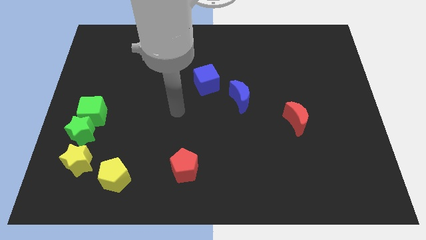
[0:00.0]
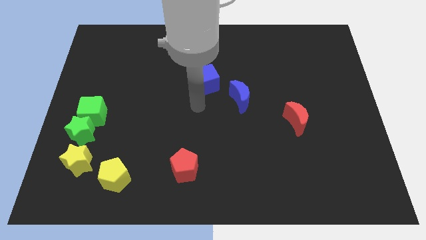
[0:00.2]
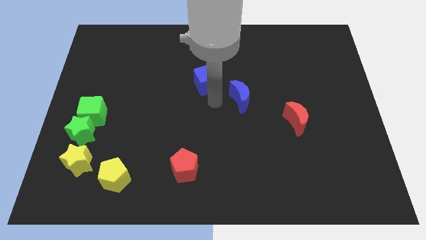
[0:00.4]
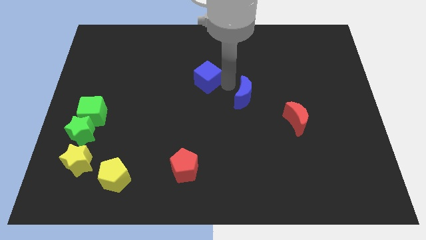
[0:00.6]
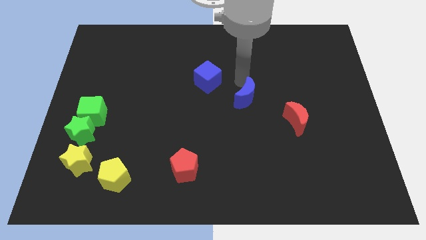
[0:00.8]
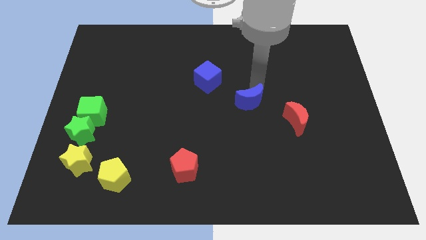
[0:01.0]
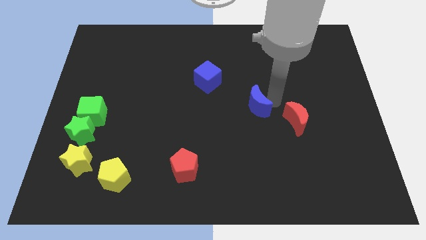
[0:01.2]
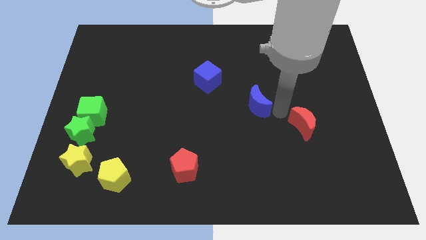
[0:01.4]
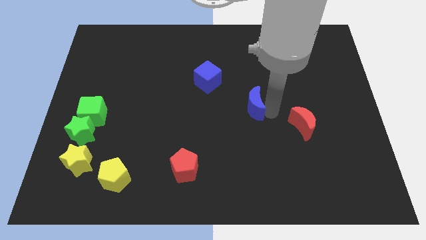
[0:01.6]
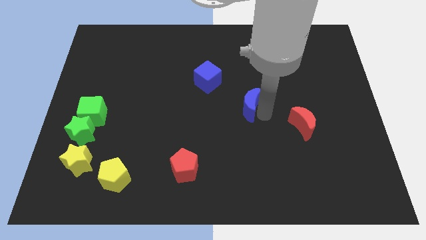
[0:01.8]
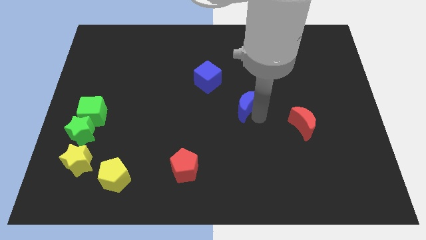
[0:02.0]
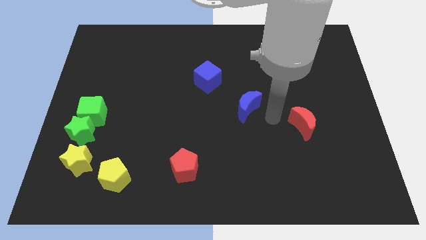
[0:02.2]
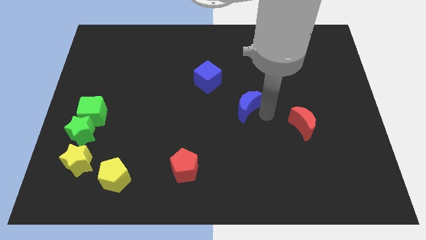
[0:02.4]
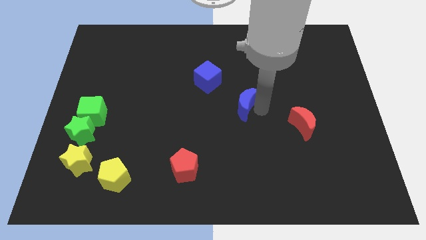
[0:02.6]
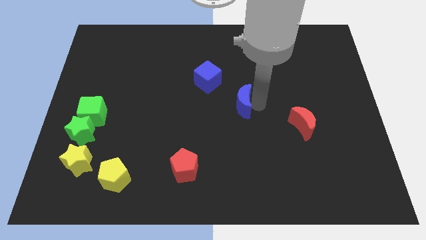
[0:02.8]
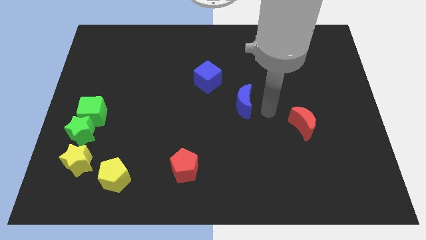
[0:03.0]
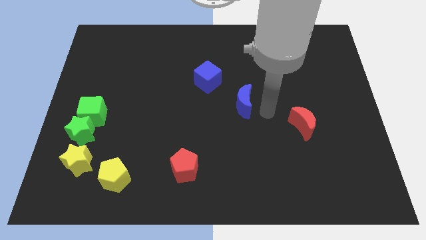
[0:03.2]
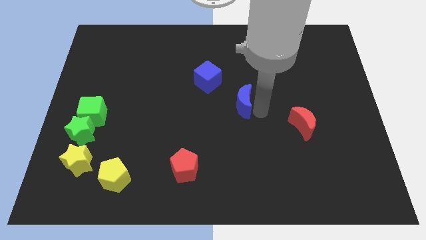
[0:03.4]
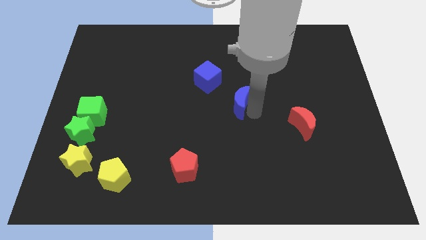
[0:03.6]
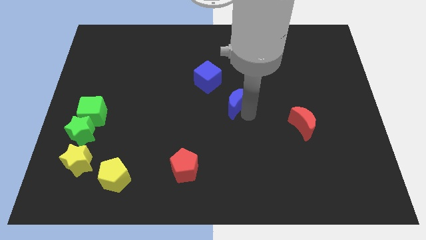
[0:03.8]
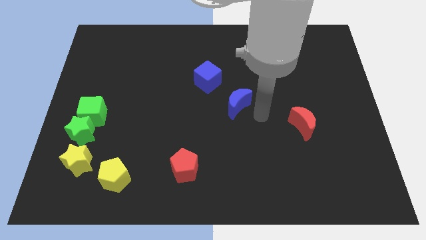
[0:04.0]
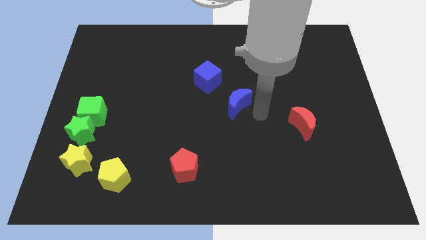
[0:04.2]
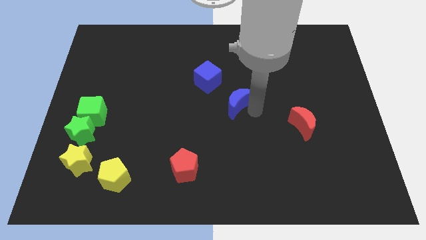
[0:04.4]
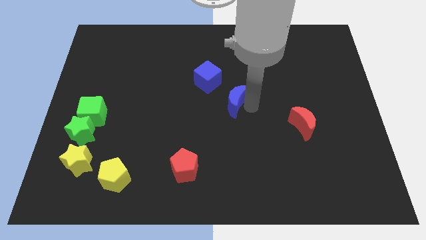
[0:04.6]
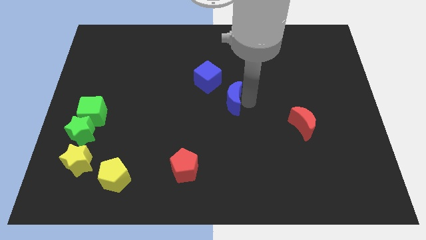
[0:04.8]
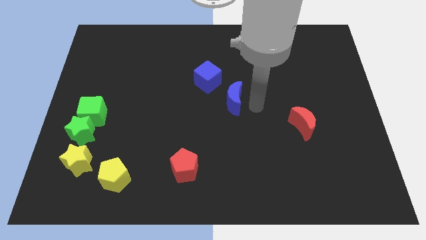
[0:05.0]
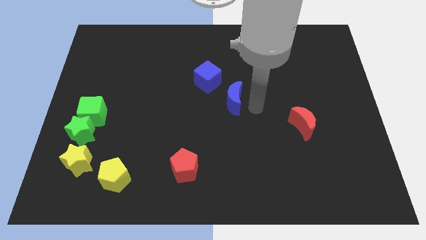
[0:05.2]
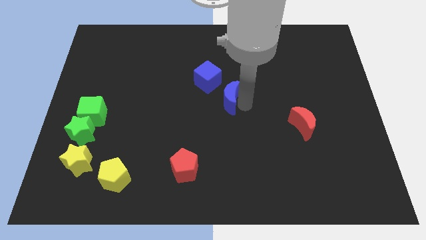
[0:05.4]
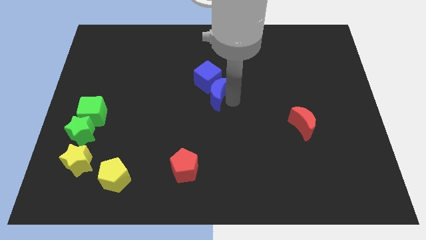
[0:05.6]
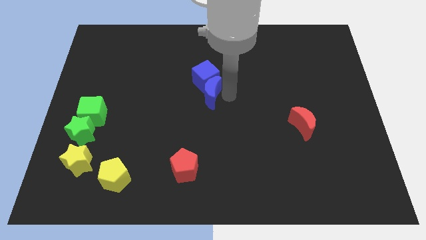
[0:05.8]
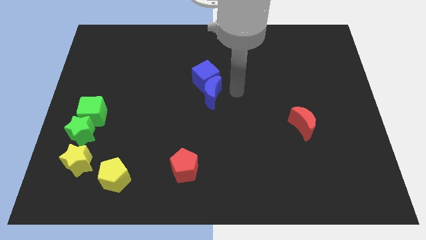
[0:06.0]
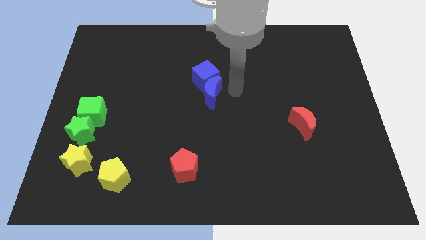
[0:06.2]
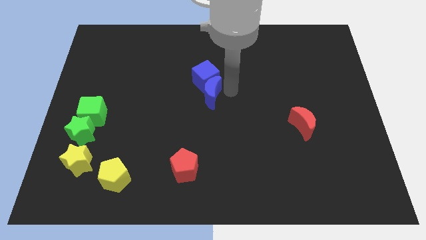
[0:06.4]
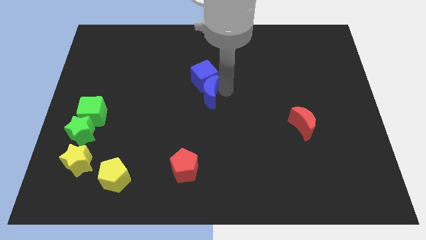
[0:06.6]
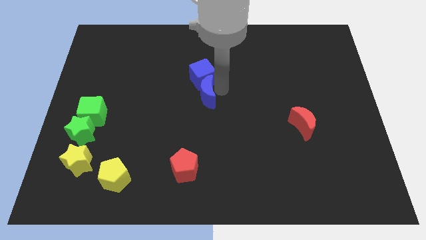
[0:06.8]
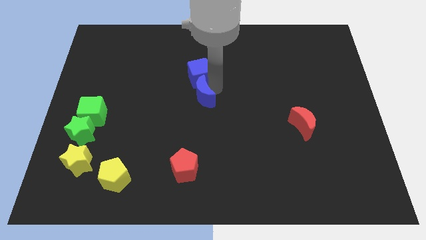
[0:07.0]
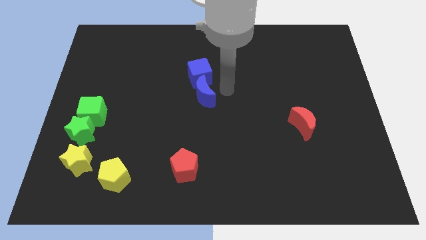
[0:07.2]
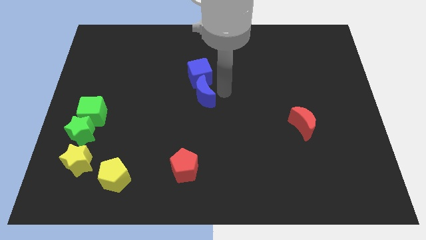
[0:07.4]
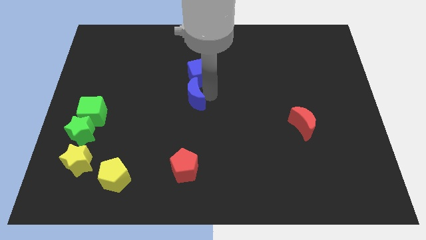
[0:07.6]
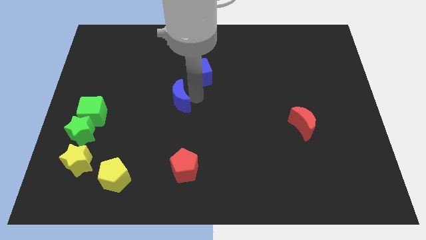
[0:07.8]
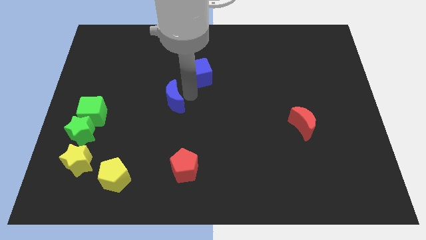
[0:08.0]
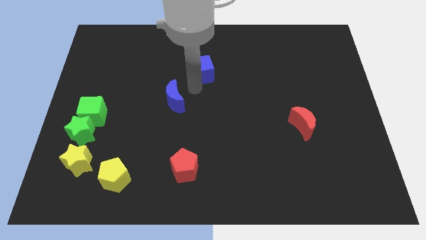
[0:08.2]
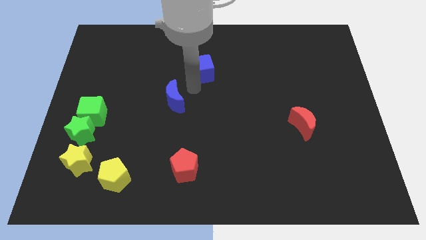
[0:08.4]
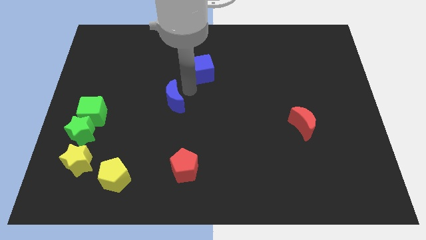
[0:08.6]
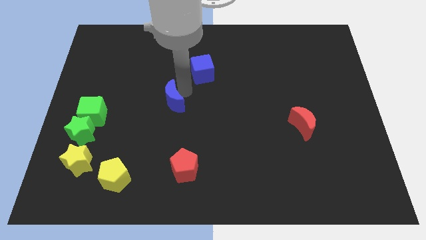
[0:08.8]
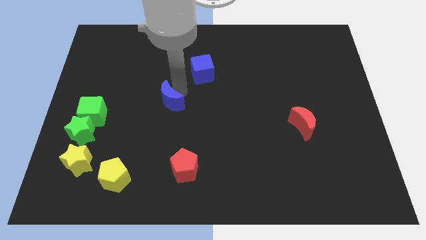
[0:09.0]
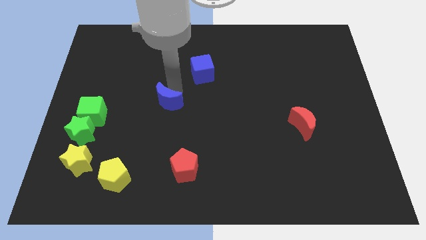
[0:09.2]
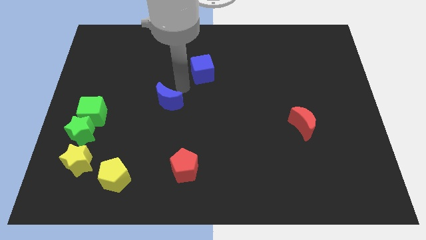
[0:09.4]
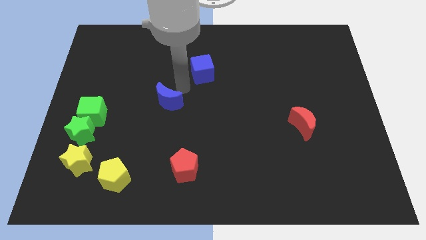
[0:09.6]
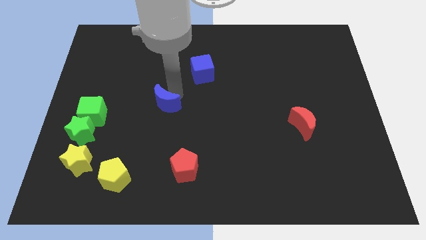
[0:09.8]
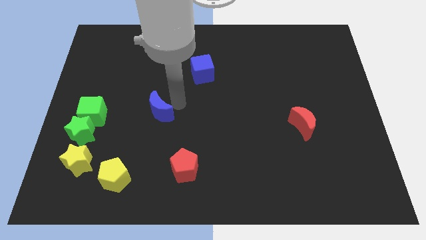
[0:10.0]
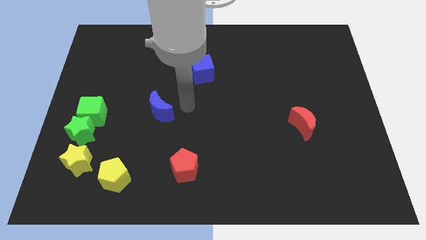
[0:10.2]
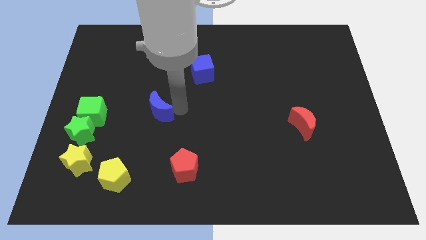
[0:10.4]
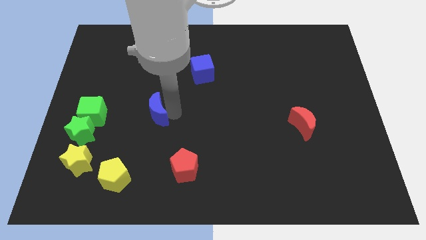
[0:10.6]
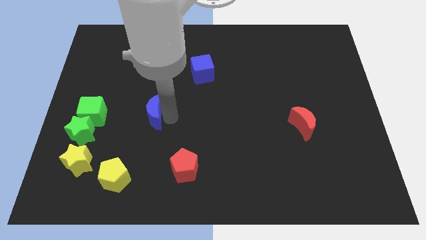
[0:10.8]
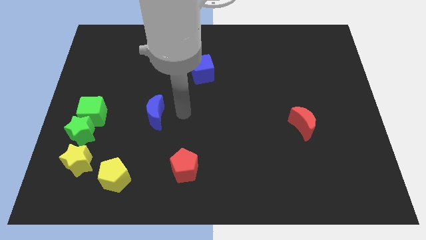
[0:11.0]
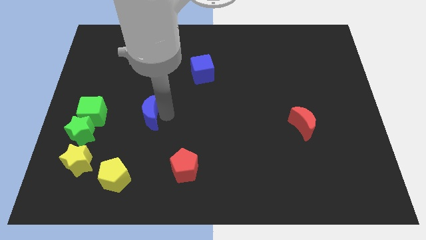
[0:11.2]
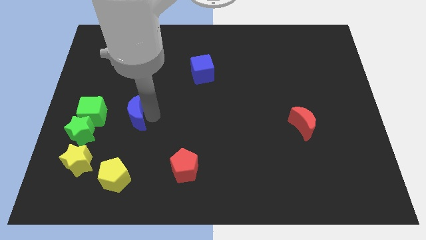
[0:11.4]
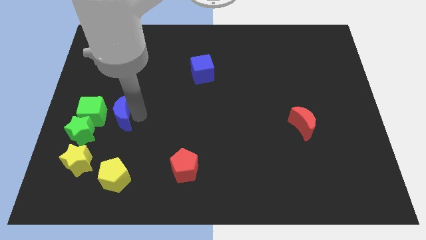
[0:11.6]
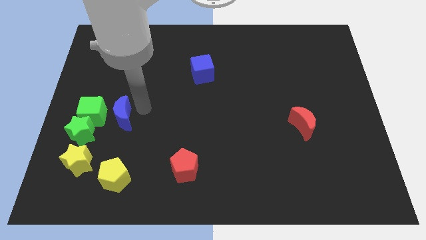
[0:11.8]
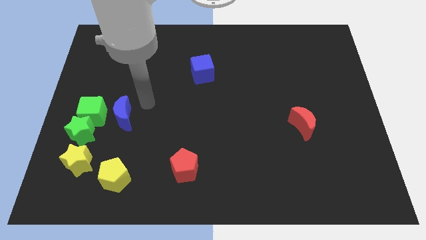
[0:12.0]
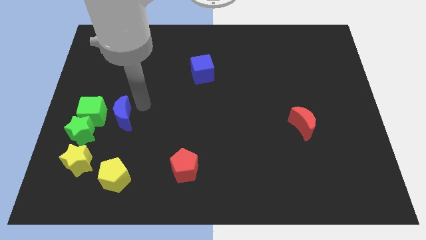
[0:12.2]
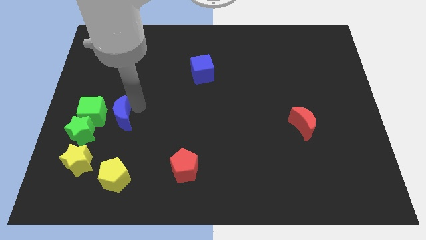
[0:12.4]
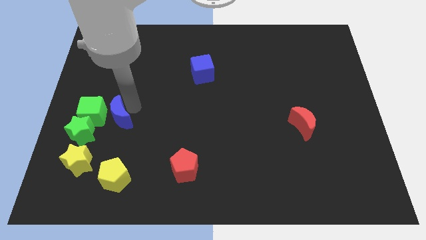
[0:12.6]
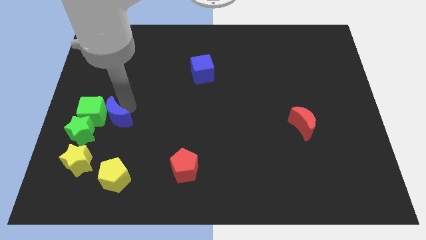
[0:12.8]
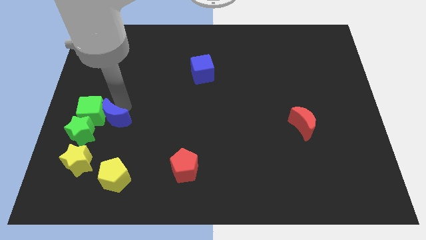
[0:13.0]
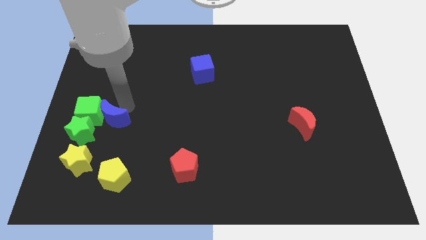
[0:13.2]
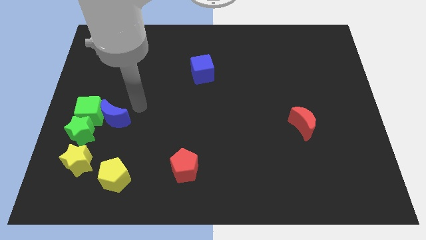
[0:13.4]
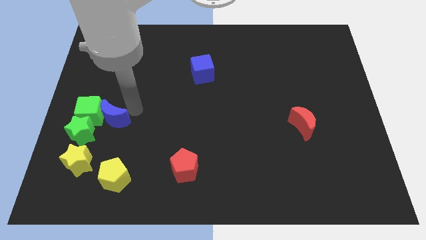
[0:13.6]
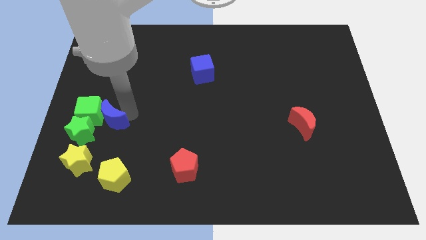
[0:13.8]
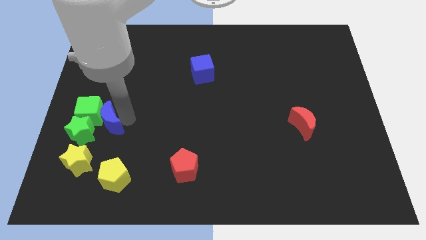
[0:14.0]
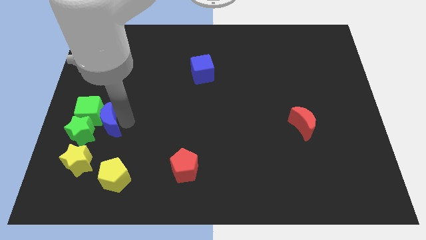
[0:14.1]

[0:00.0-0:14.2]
move the blue moon close to the green star
